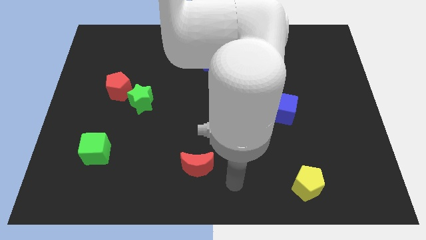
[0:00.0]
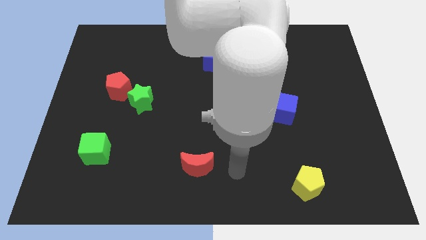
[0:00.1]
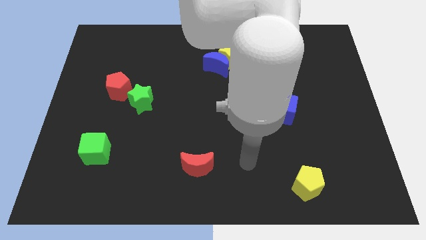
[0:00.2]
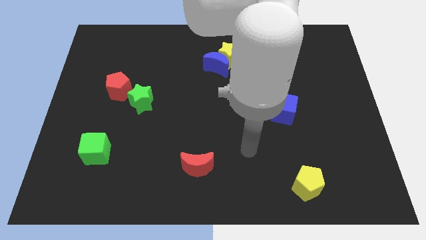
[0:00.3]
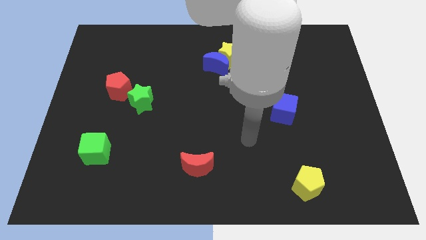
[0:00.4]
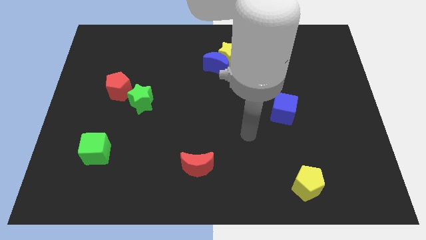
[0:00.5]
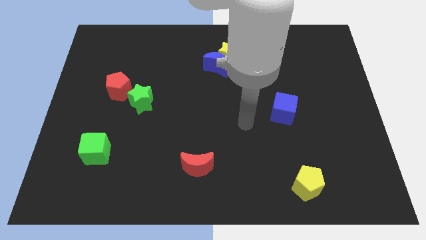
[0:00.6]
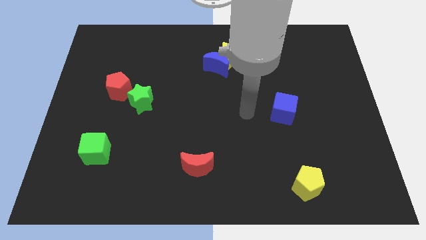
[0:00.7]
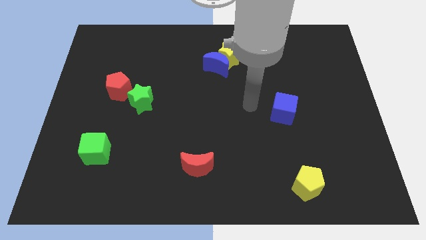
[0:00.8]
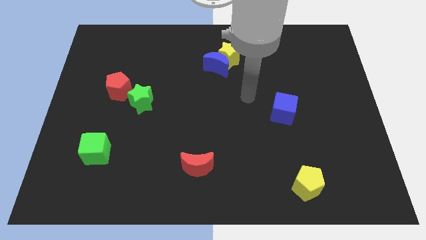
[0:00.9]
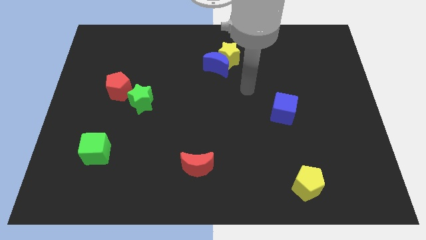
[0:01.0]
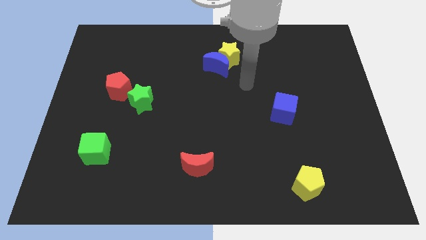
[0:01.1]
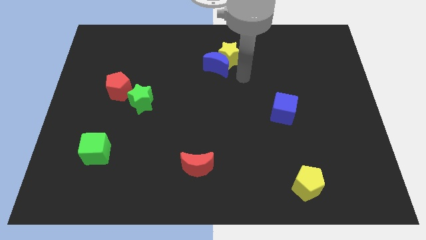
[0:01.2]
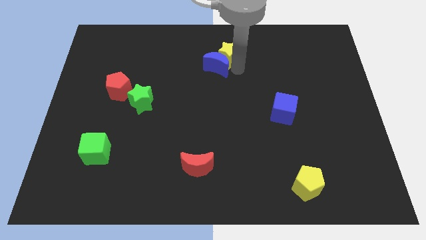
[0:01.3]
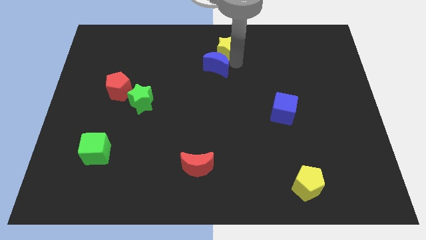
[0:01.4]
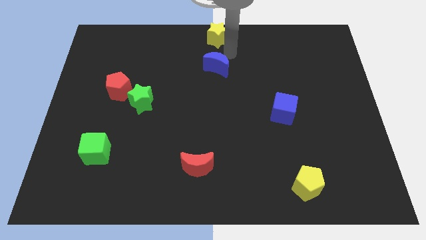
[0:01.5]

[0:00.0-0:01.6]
pull the blue moon apart from the yellow star

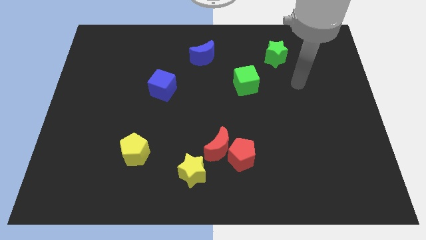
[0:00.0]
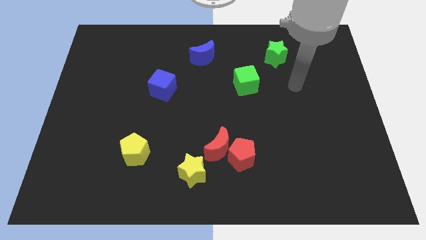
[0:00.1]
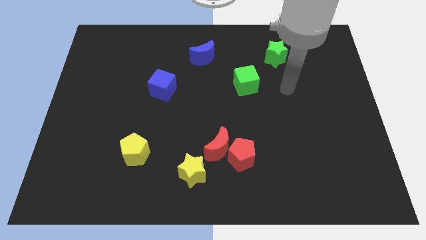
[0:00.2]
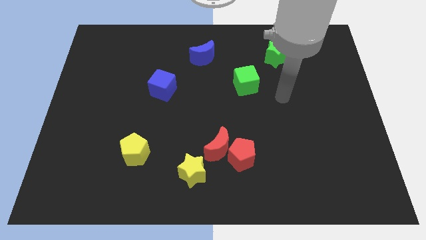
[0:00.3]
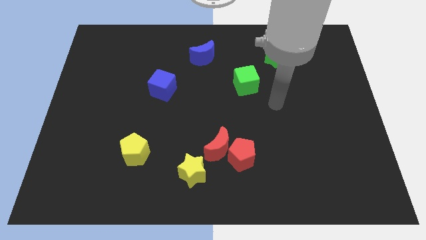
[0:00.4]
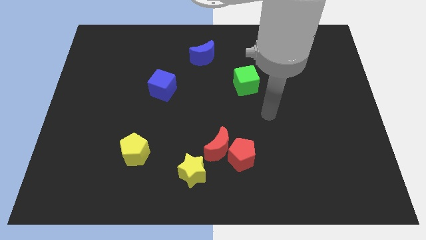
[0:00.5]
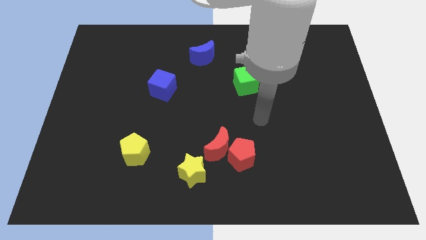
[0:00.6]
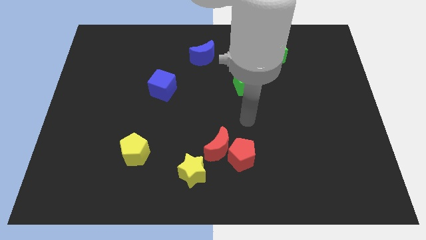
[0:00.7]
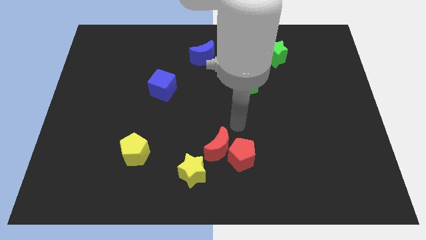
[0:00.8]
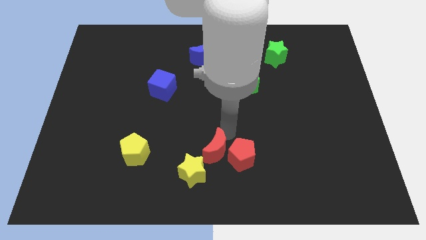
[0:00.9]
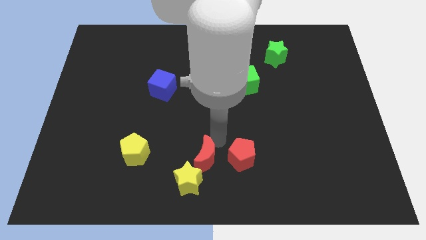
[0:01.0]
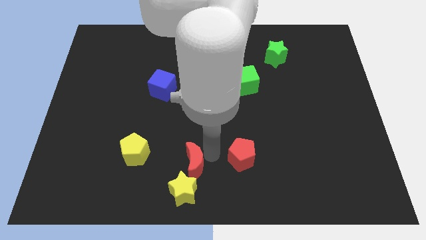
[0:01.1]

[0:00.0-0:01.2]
pull the red pentagon apart from the red moon

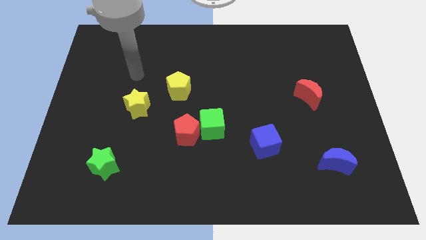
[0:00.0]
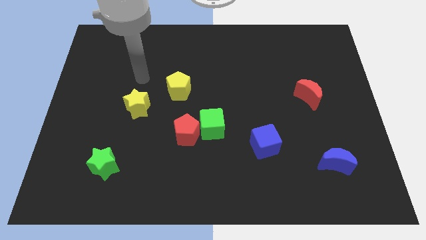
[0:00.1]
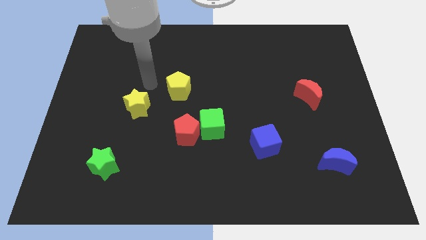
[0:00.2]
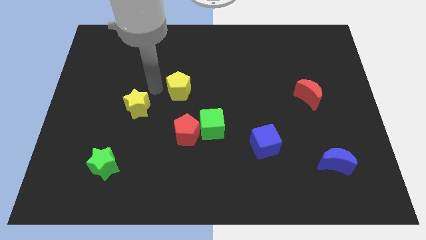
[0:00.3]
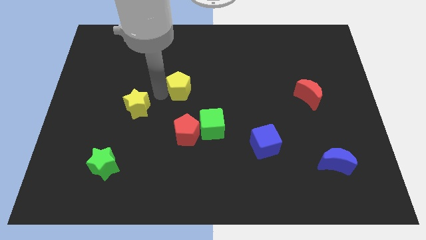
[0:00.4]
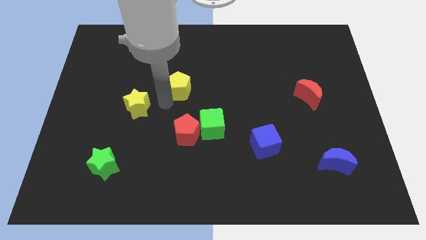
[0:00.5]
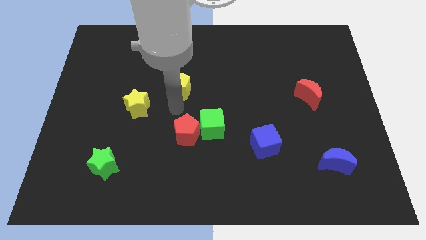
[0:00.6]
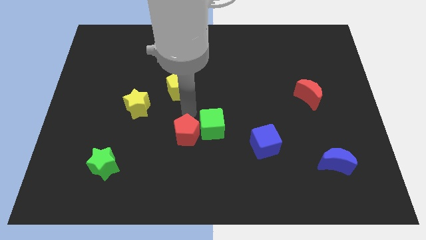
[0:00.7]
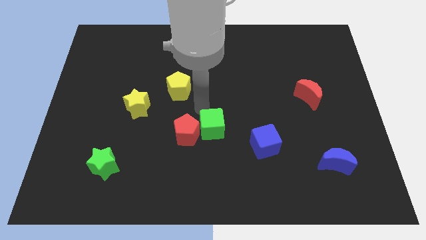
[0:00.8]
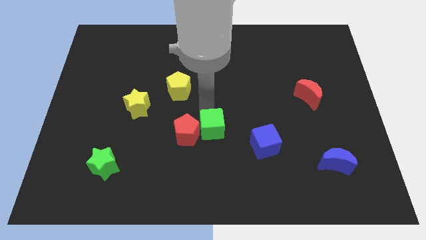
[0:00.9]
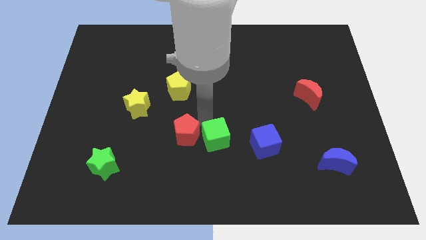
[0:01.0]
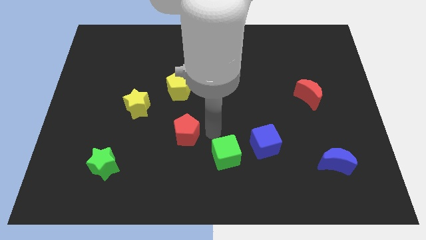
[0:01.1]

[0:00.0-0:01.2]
pull the red pentagon apart from the green cube

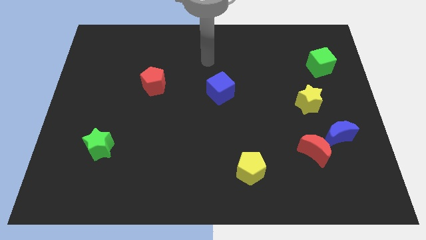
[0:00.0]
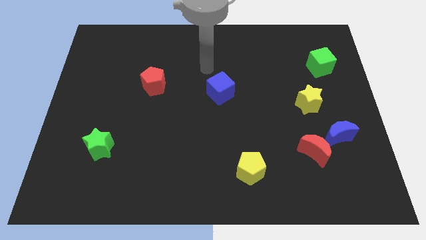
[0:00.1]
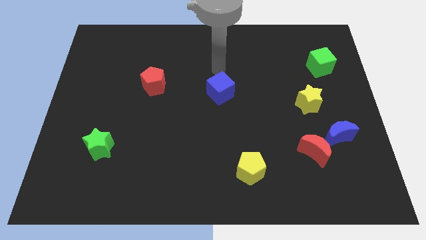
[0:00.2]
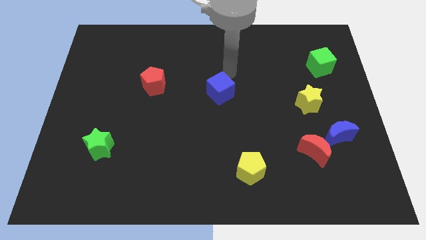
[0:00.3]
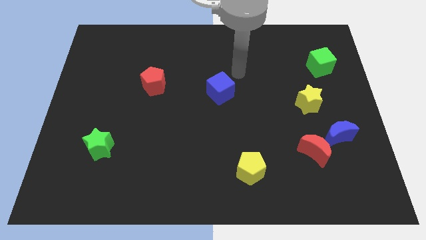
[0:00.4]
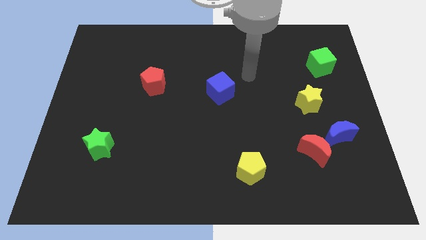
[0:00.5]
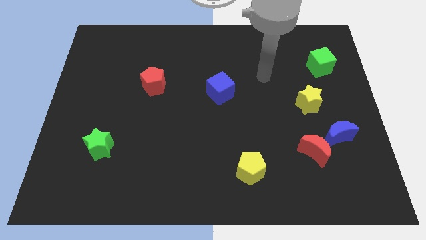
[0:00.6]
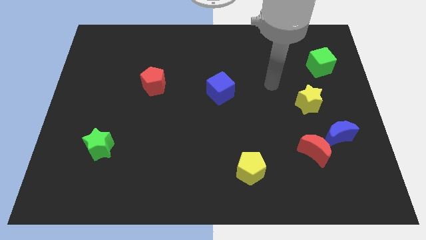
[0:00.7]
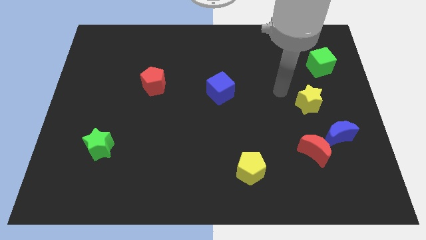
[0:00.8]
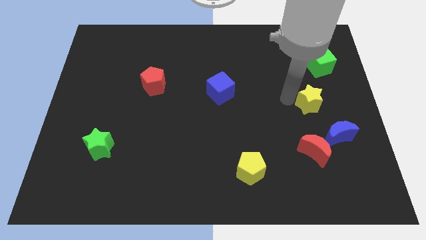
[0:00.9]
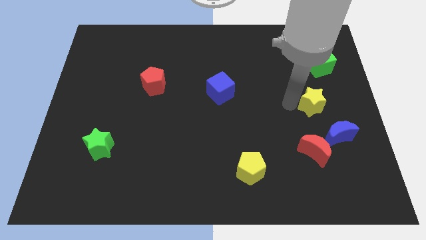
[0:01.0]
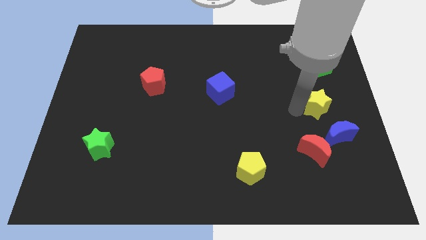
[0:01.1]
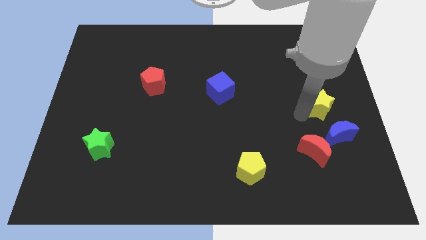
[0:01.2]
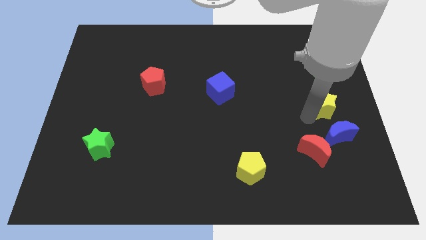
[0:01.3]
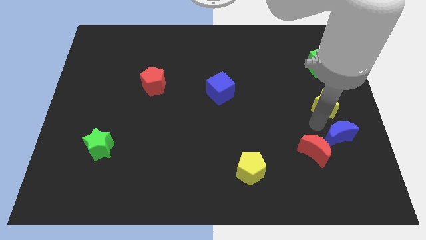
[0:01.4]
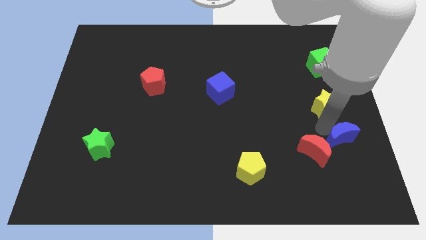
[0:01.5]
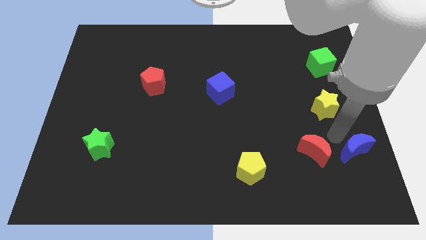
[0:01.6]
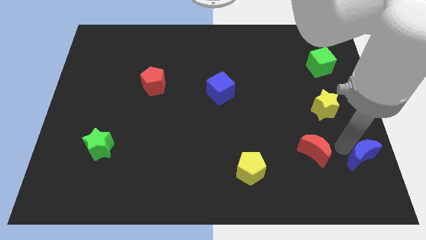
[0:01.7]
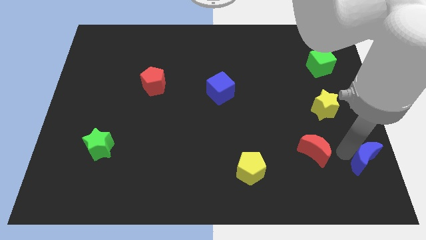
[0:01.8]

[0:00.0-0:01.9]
pull the red moon apart from the blue moon

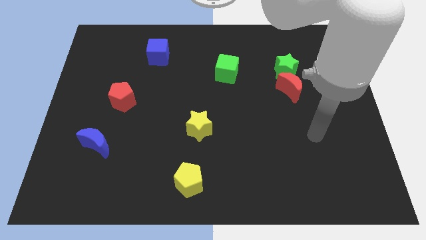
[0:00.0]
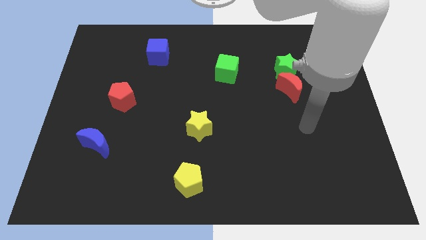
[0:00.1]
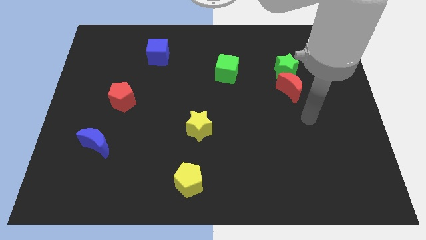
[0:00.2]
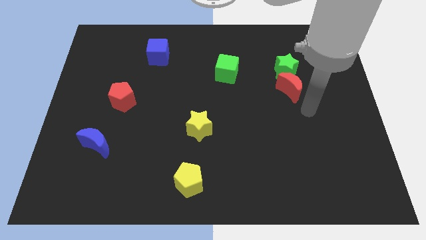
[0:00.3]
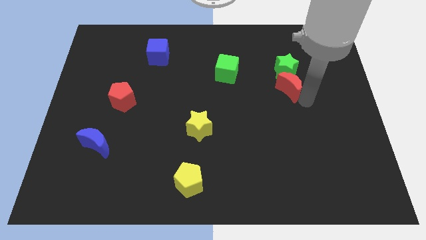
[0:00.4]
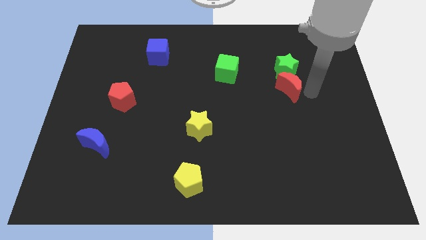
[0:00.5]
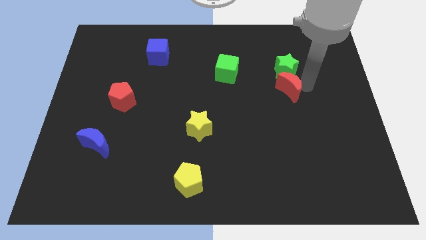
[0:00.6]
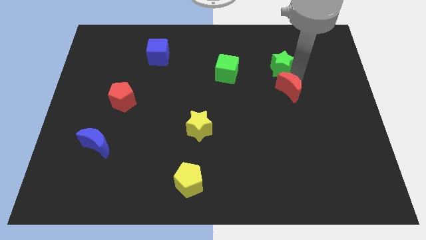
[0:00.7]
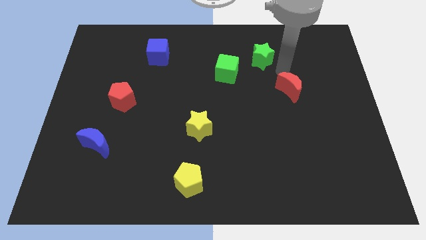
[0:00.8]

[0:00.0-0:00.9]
separate the red moon from the green star

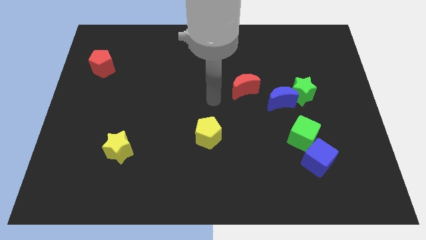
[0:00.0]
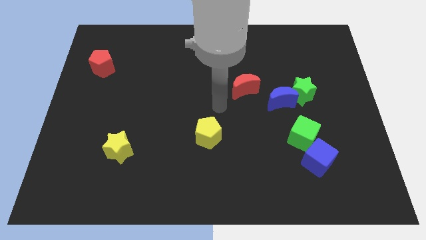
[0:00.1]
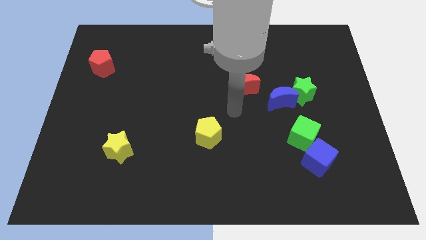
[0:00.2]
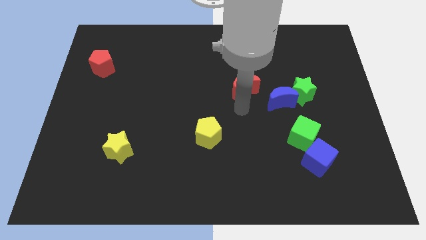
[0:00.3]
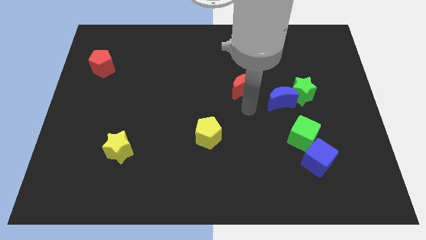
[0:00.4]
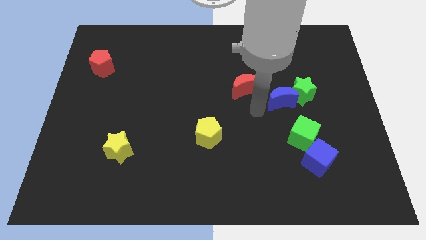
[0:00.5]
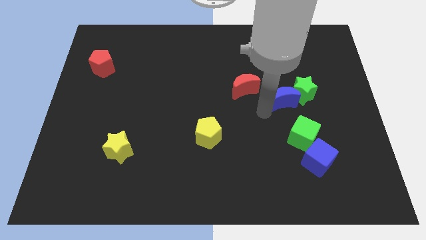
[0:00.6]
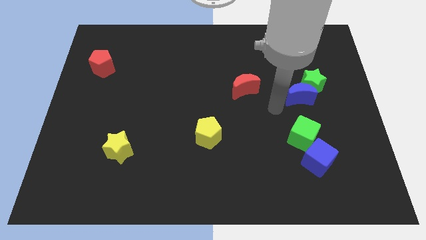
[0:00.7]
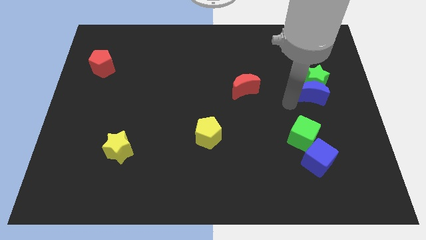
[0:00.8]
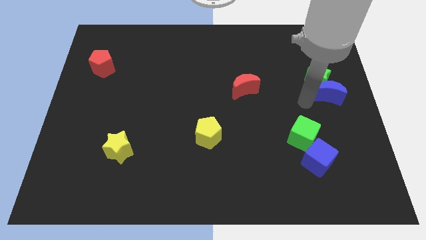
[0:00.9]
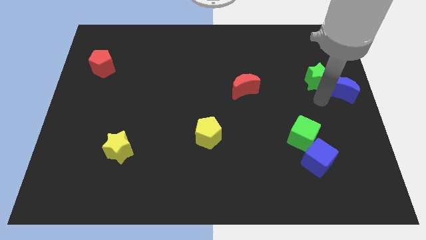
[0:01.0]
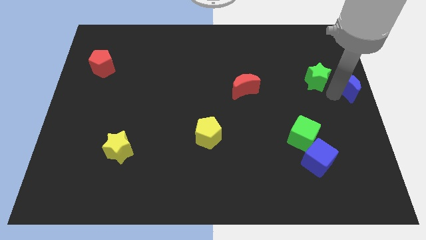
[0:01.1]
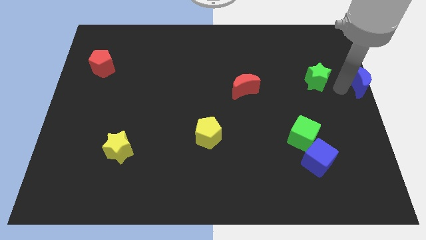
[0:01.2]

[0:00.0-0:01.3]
pull the green star apart from the blue moon

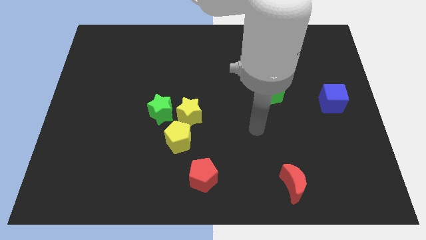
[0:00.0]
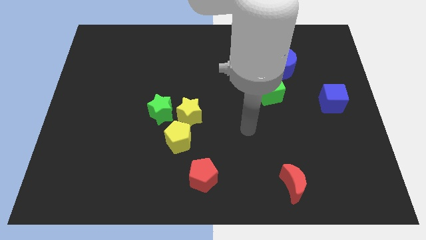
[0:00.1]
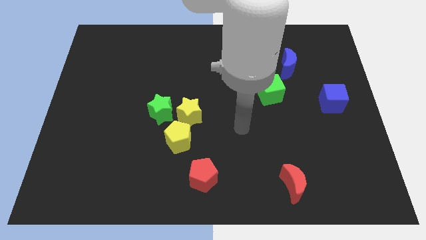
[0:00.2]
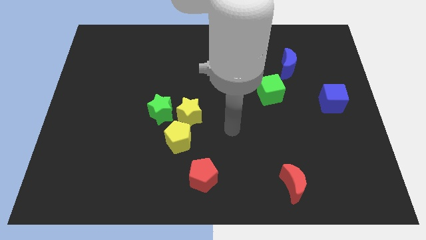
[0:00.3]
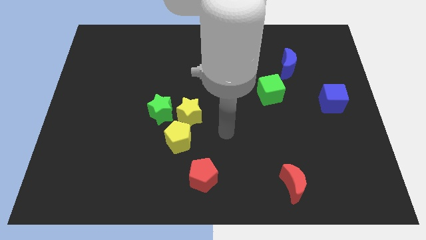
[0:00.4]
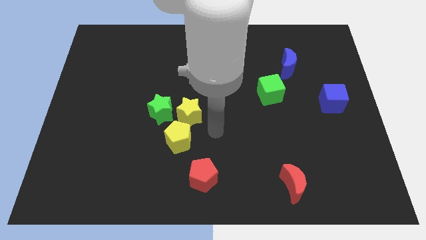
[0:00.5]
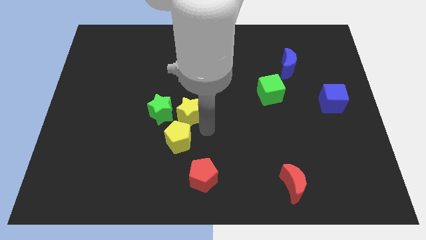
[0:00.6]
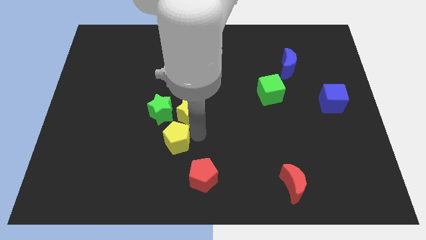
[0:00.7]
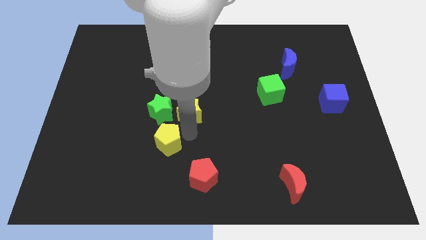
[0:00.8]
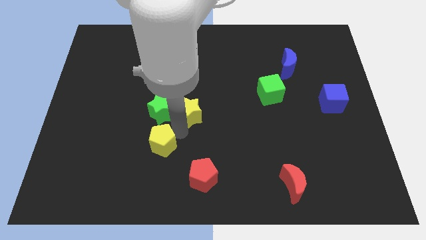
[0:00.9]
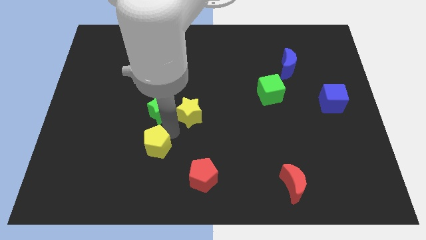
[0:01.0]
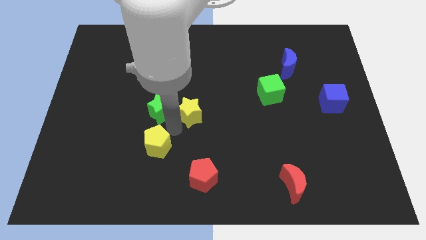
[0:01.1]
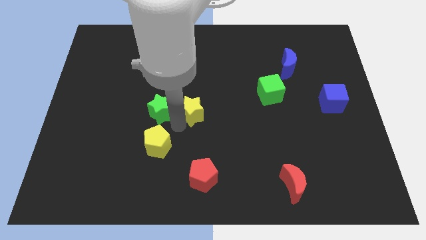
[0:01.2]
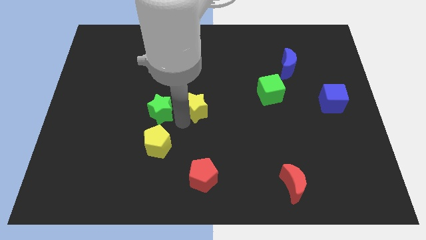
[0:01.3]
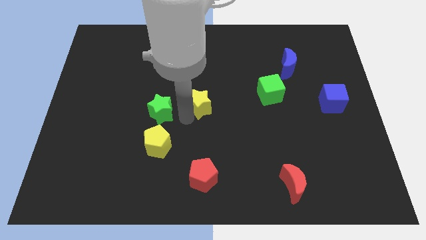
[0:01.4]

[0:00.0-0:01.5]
pull the yellow star apart from the green star and yellow pentagon
